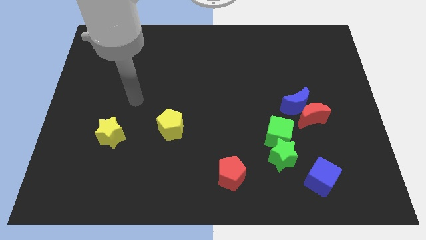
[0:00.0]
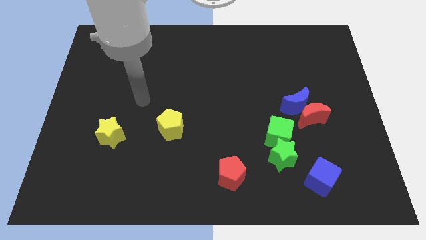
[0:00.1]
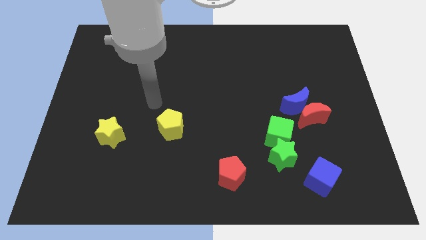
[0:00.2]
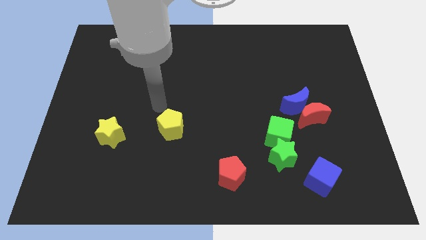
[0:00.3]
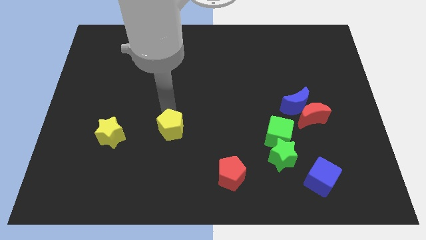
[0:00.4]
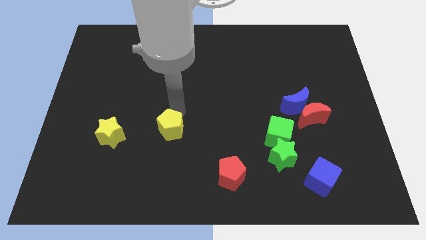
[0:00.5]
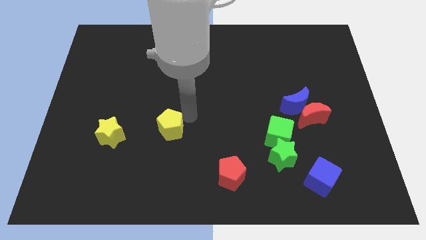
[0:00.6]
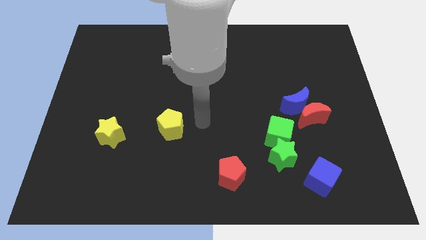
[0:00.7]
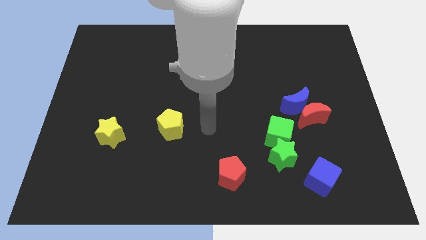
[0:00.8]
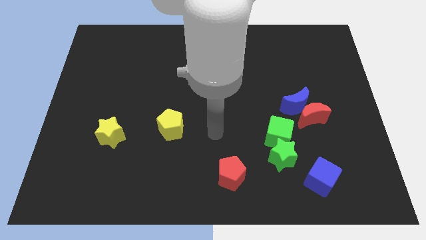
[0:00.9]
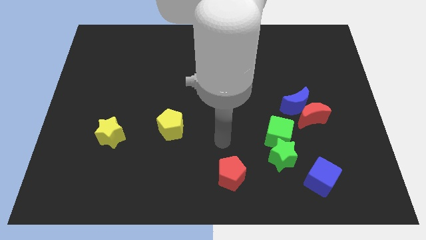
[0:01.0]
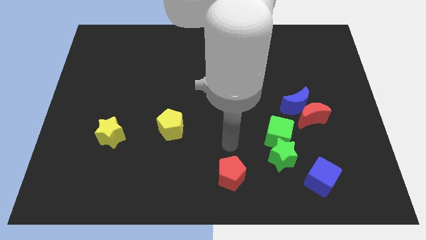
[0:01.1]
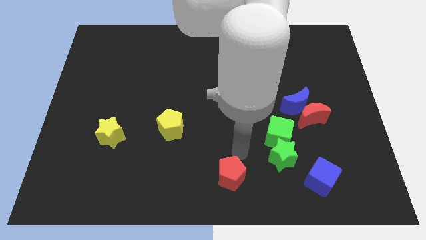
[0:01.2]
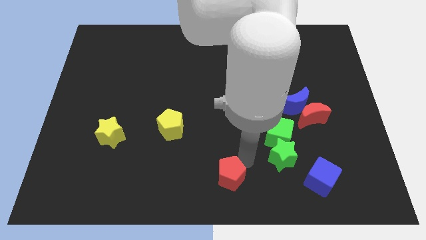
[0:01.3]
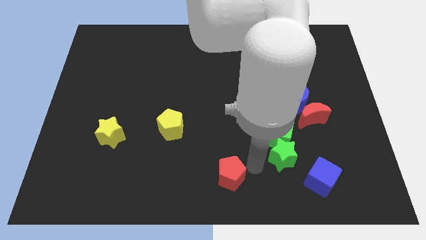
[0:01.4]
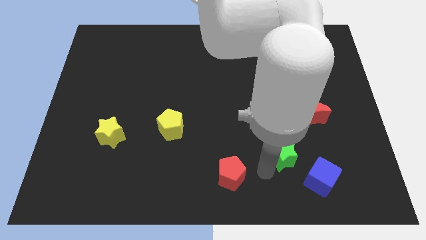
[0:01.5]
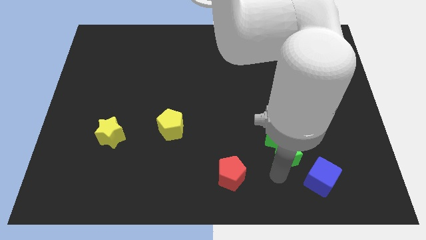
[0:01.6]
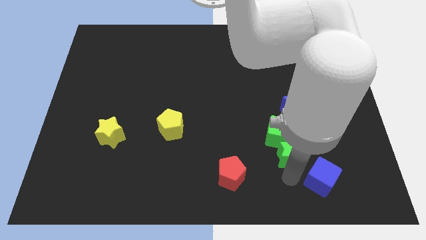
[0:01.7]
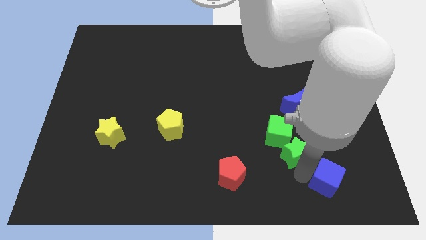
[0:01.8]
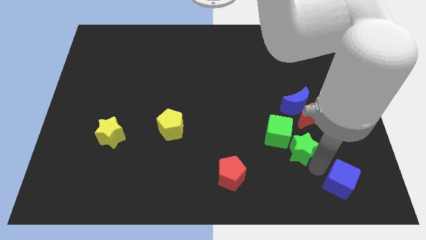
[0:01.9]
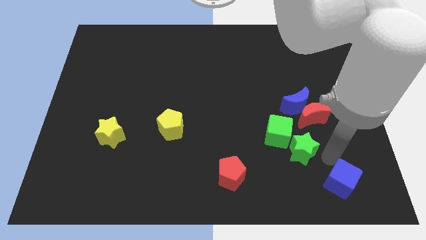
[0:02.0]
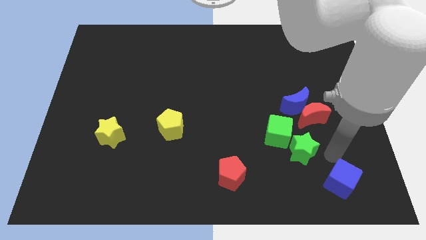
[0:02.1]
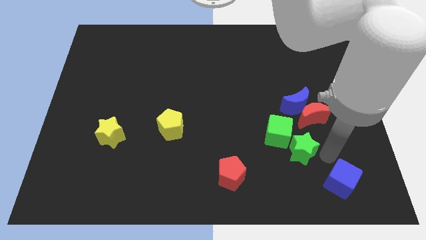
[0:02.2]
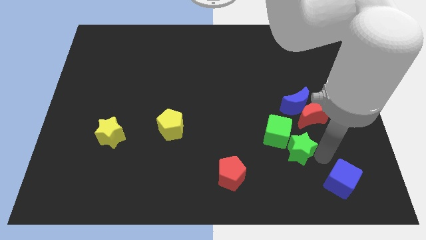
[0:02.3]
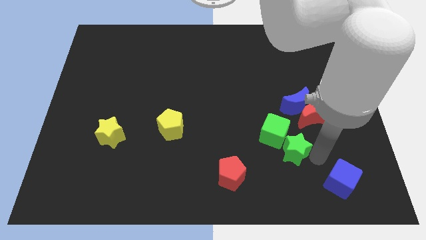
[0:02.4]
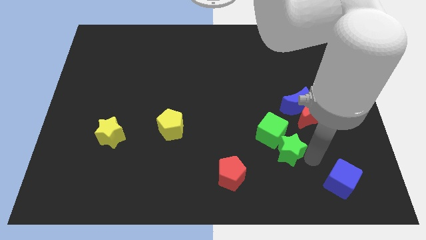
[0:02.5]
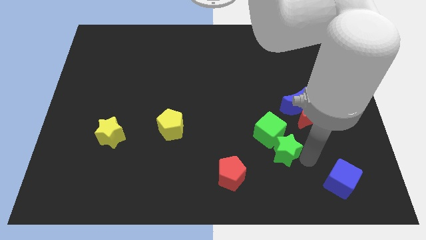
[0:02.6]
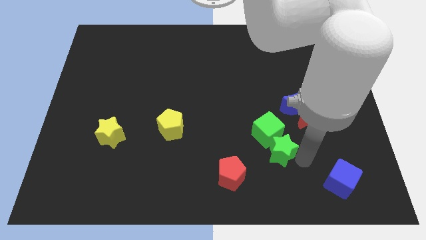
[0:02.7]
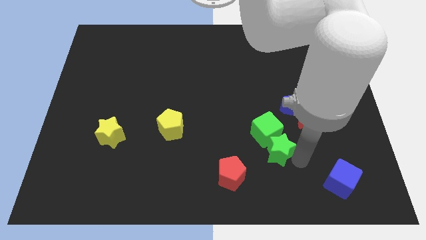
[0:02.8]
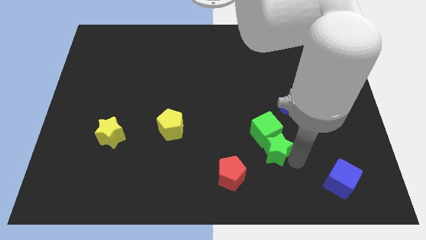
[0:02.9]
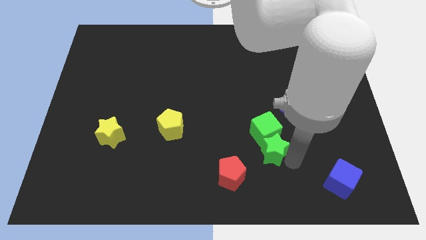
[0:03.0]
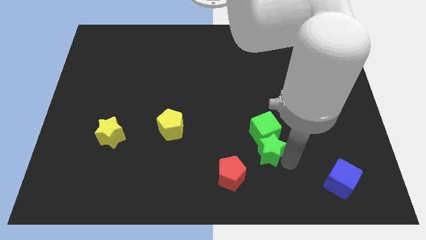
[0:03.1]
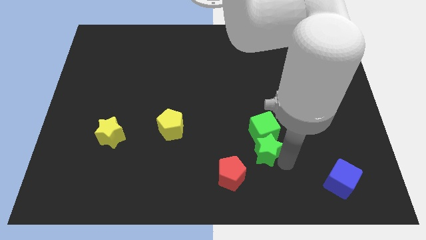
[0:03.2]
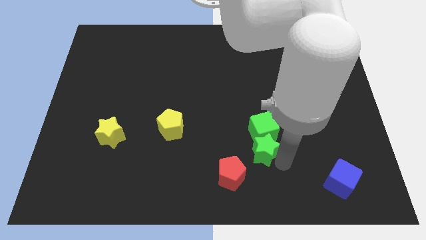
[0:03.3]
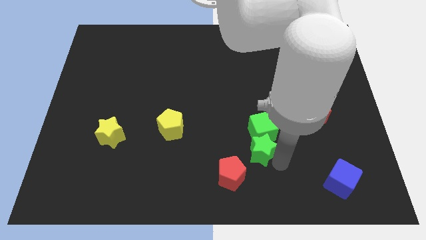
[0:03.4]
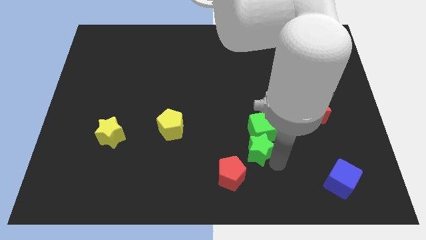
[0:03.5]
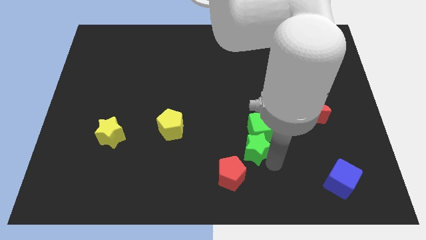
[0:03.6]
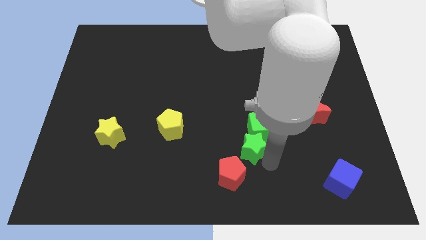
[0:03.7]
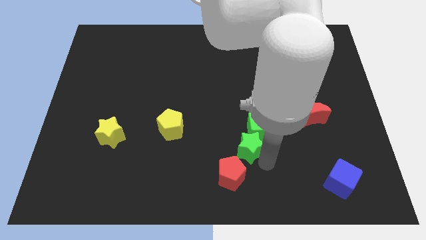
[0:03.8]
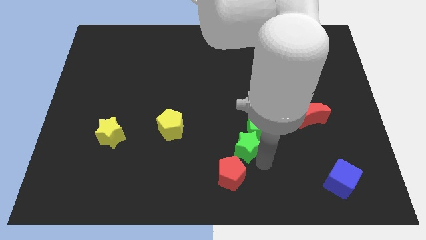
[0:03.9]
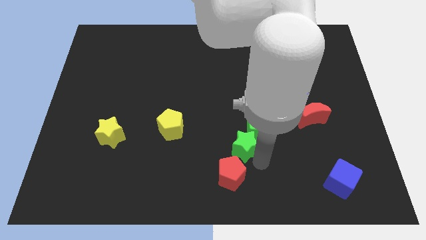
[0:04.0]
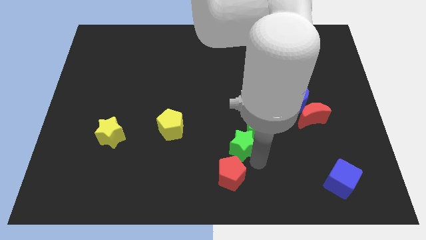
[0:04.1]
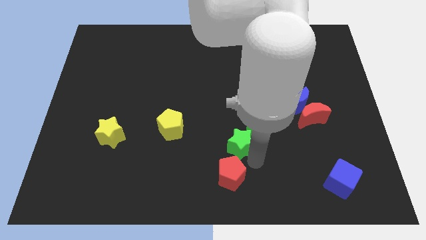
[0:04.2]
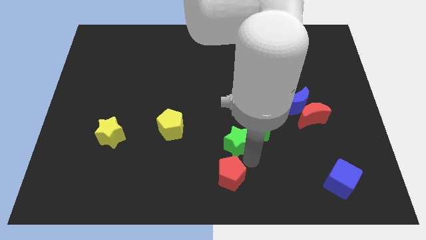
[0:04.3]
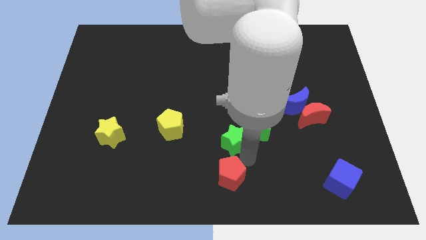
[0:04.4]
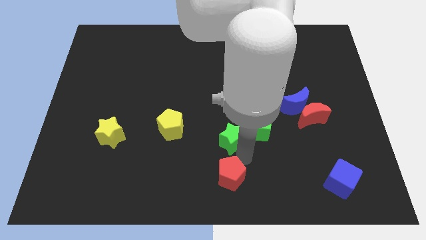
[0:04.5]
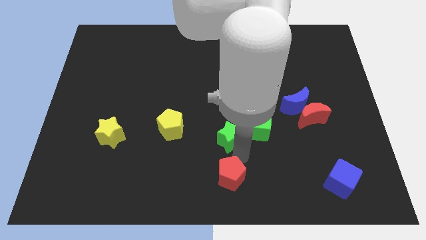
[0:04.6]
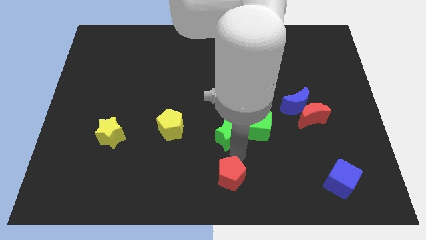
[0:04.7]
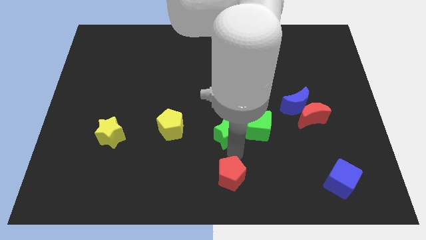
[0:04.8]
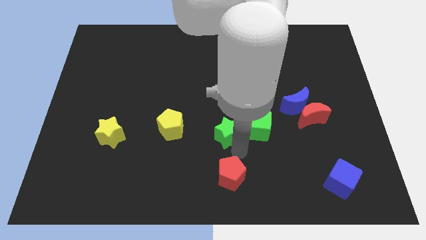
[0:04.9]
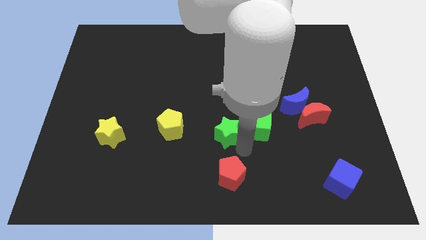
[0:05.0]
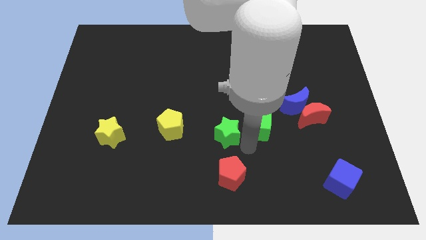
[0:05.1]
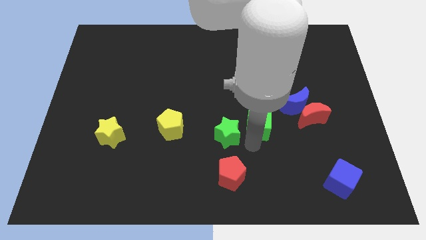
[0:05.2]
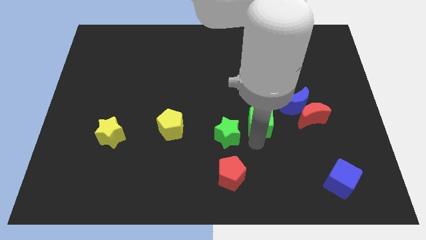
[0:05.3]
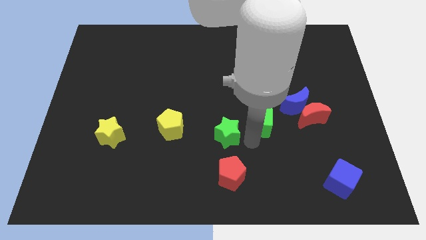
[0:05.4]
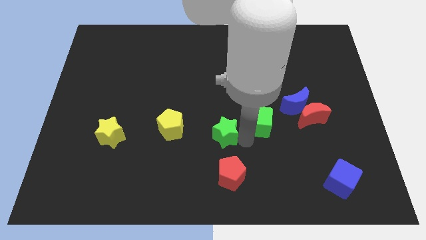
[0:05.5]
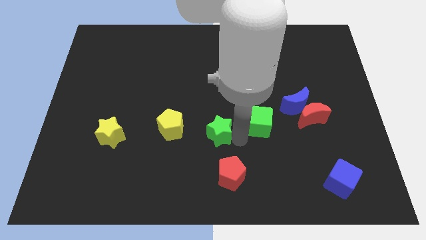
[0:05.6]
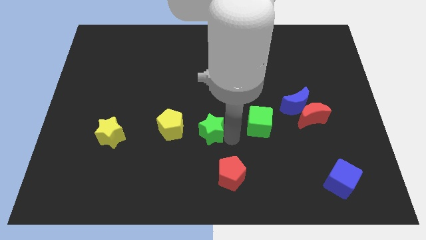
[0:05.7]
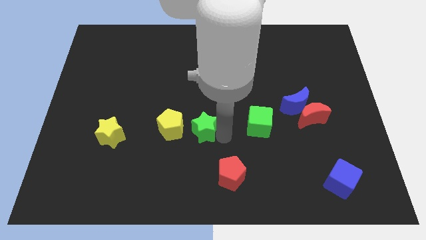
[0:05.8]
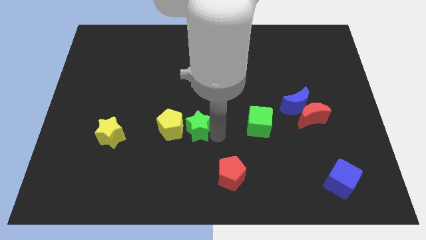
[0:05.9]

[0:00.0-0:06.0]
move the green star towards the yellow pentagon

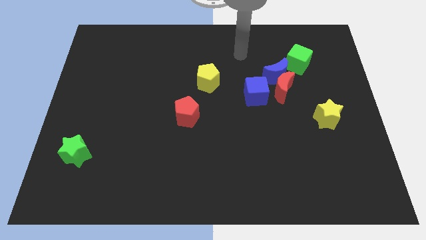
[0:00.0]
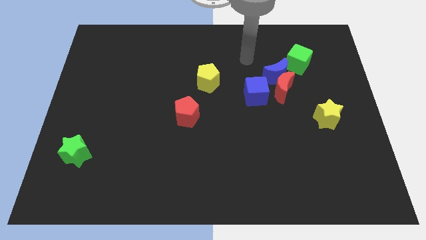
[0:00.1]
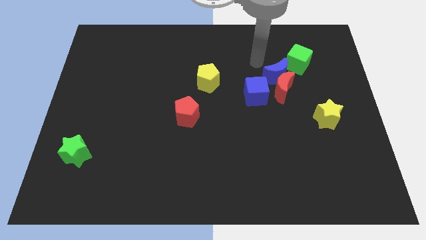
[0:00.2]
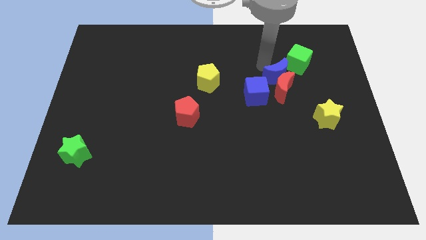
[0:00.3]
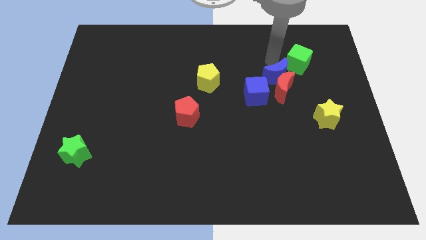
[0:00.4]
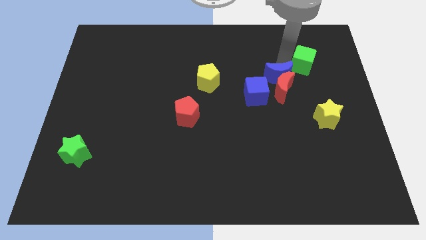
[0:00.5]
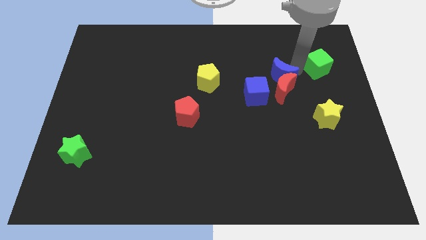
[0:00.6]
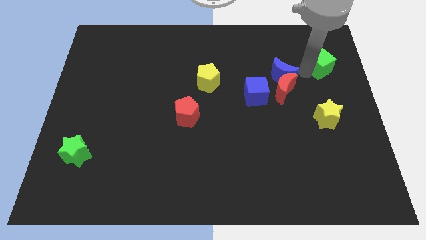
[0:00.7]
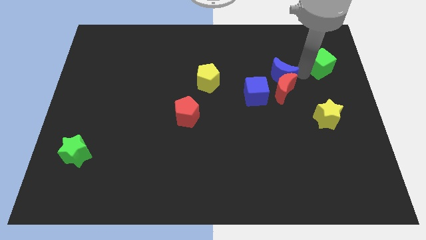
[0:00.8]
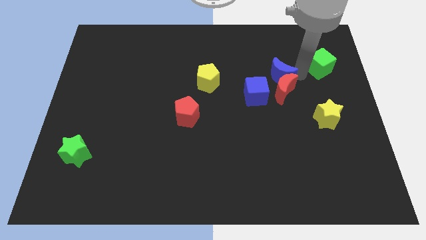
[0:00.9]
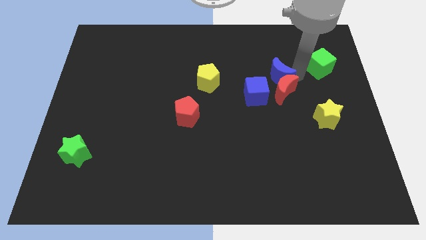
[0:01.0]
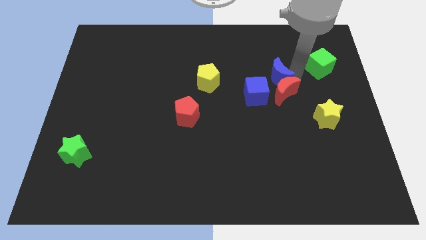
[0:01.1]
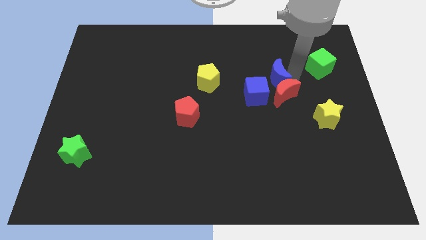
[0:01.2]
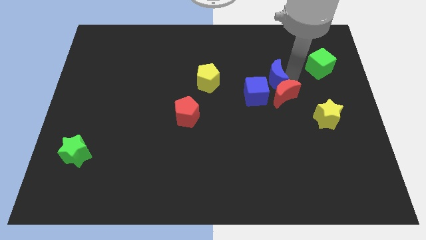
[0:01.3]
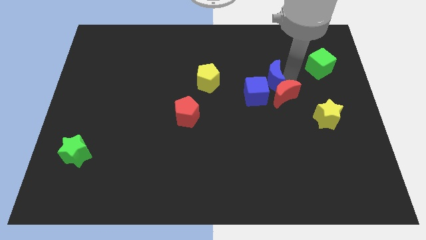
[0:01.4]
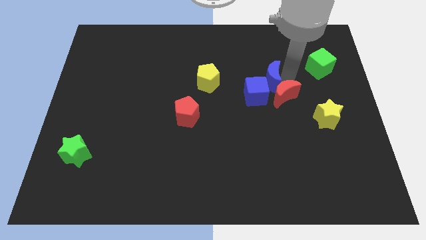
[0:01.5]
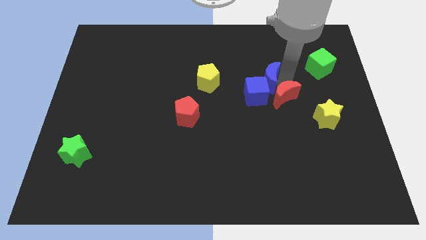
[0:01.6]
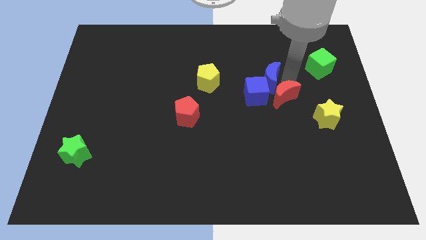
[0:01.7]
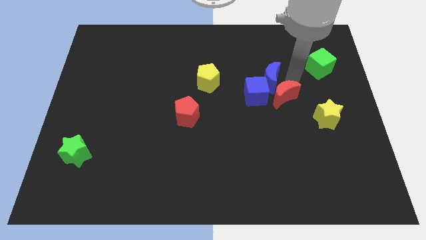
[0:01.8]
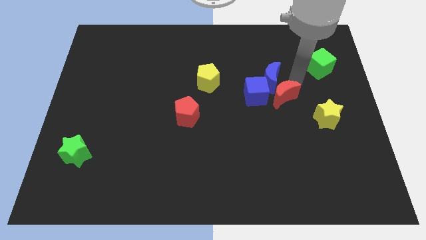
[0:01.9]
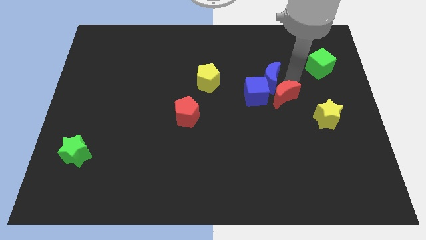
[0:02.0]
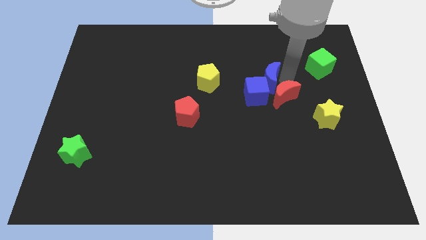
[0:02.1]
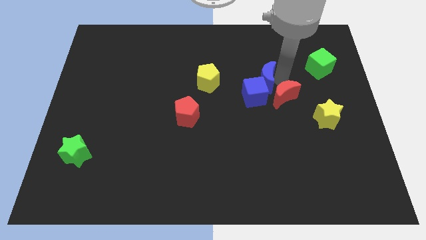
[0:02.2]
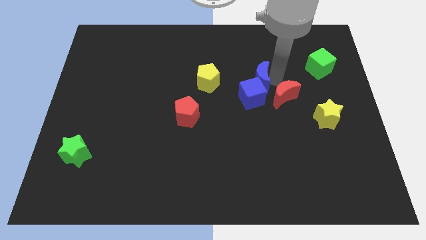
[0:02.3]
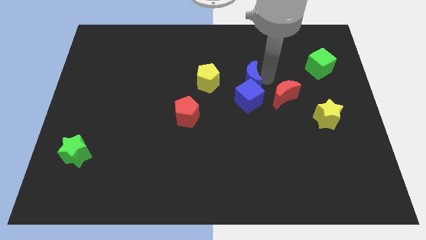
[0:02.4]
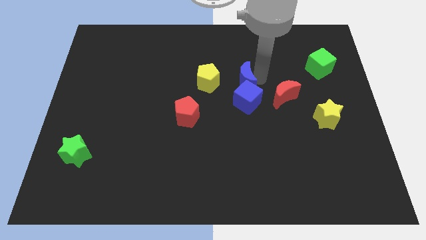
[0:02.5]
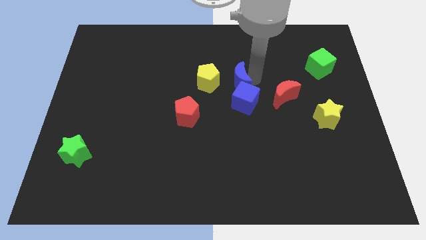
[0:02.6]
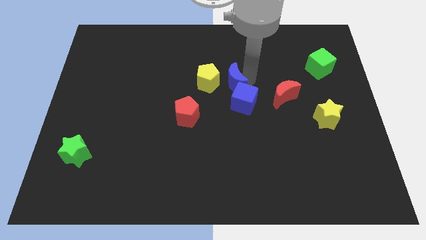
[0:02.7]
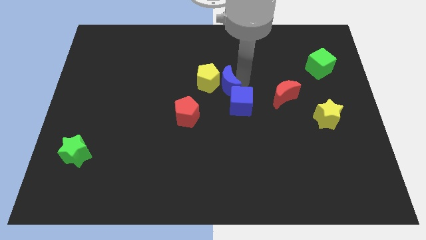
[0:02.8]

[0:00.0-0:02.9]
push the blue moon to the yellow pentagon

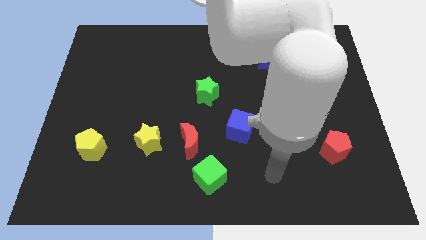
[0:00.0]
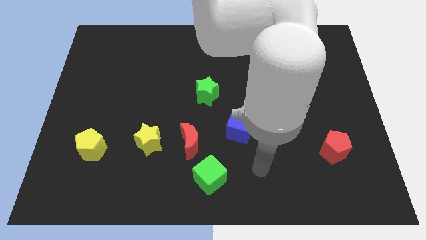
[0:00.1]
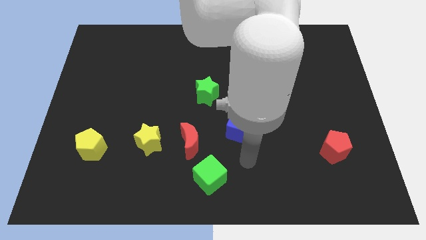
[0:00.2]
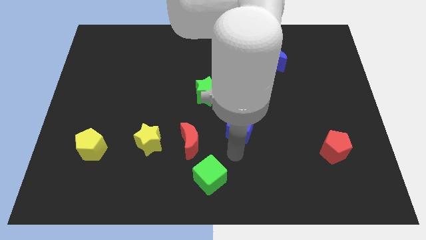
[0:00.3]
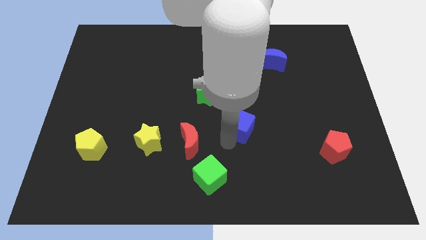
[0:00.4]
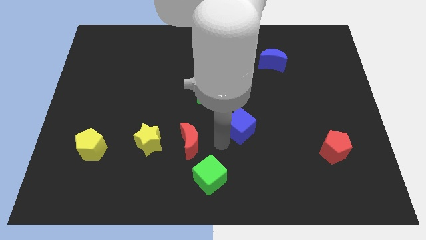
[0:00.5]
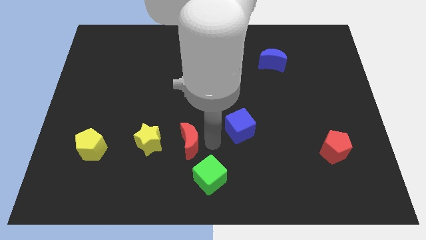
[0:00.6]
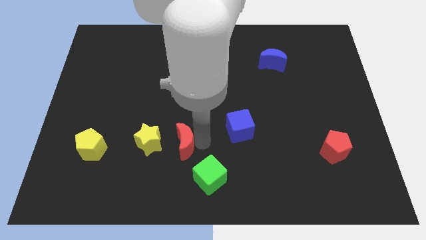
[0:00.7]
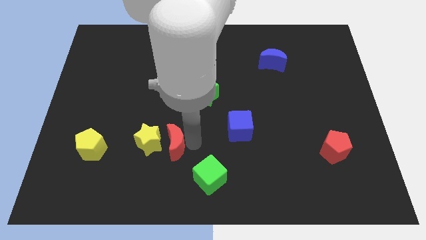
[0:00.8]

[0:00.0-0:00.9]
slide the red moon to the yellow star
